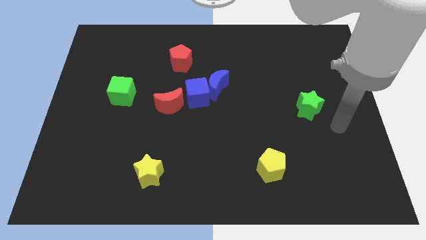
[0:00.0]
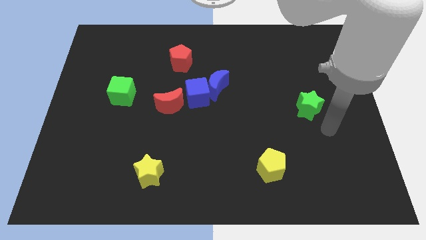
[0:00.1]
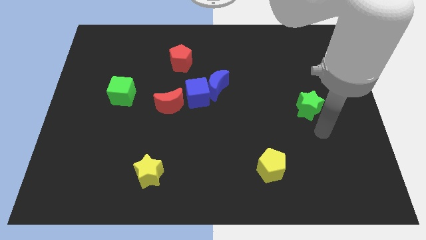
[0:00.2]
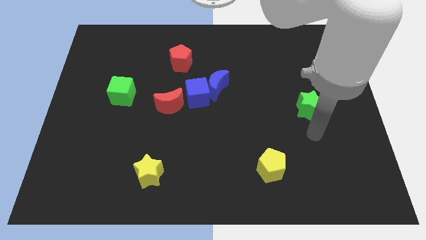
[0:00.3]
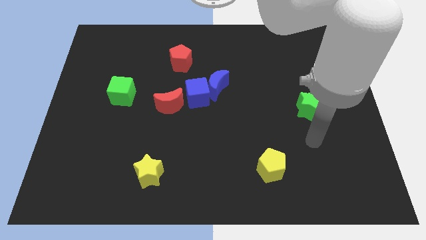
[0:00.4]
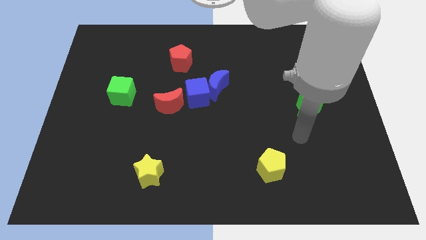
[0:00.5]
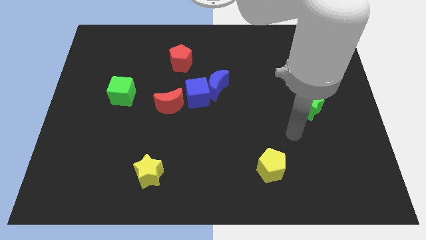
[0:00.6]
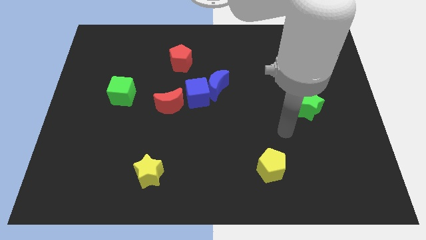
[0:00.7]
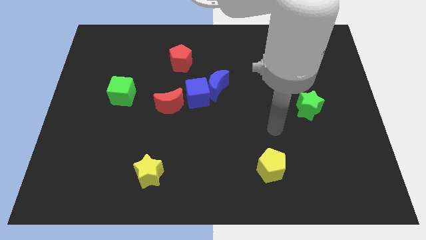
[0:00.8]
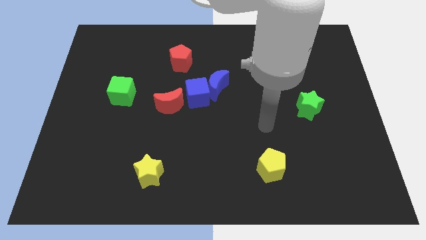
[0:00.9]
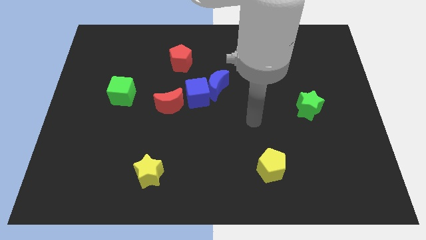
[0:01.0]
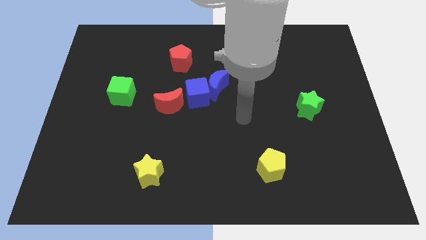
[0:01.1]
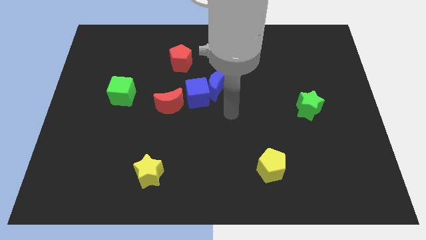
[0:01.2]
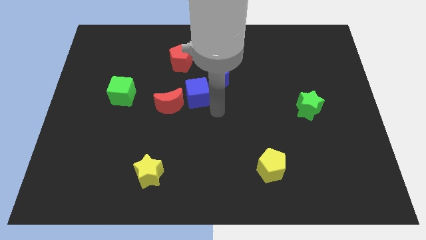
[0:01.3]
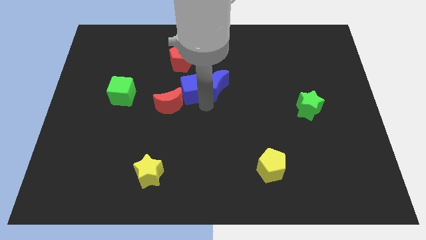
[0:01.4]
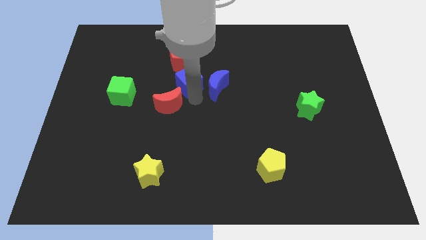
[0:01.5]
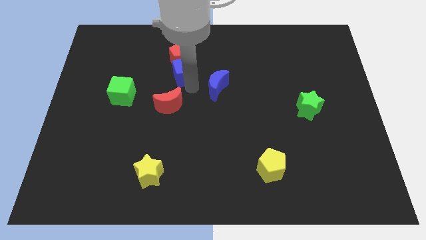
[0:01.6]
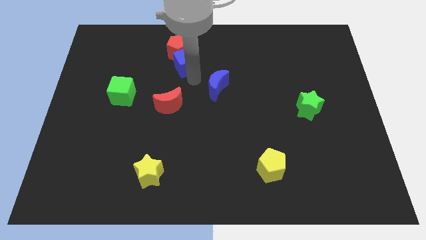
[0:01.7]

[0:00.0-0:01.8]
pull the blue moon apart from the blue cube

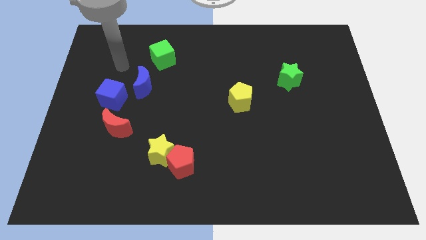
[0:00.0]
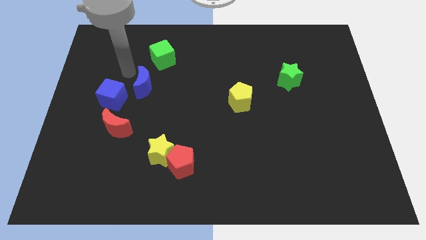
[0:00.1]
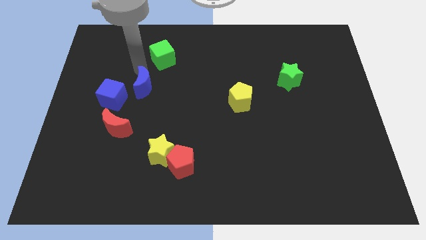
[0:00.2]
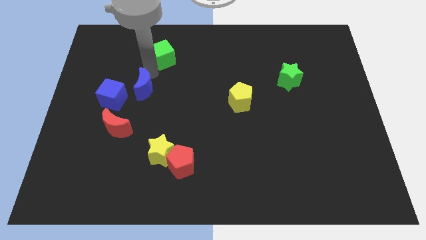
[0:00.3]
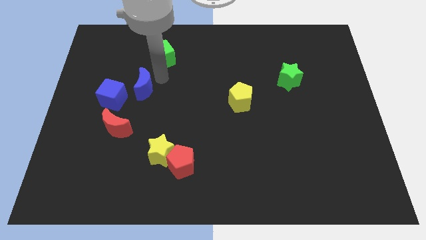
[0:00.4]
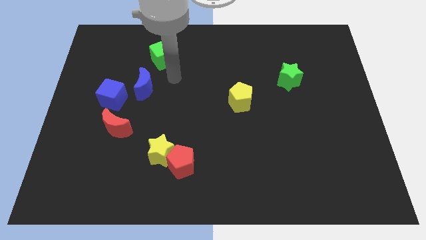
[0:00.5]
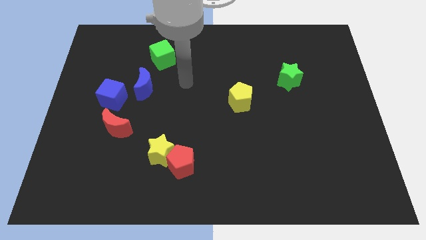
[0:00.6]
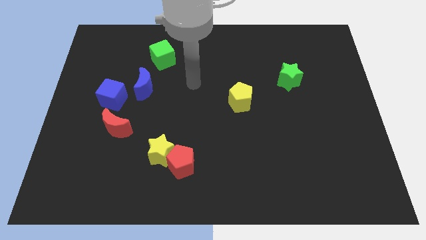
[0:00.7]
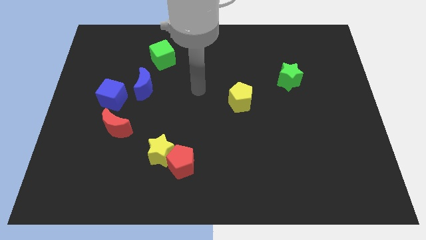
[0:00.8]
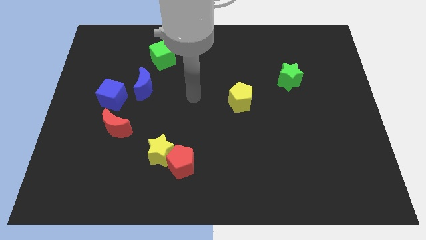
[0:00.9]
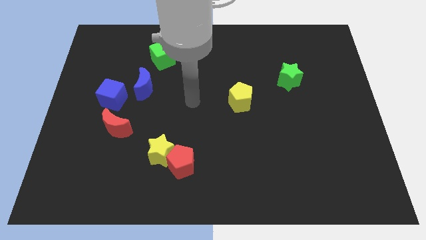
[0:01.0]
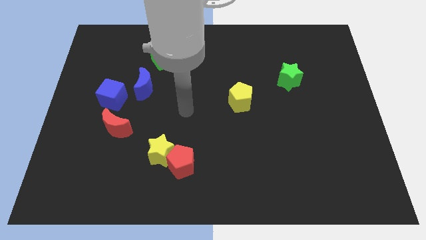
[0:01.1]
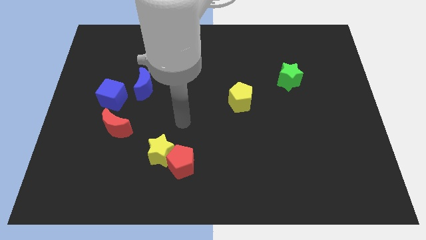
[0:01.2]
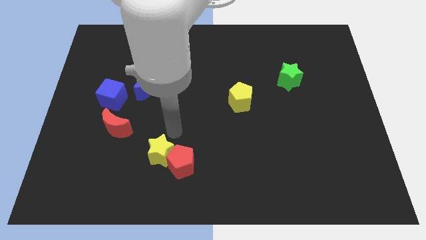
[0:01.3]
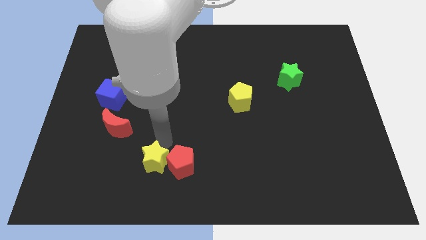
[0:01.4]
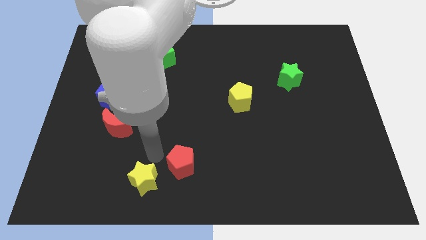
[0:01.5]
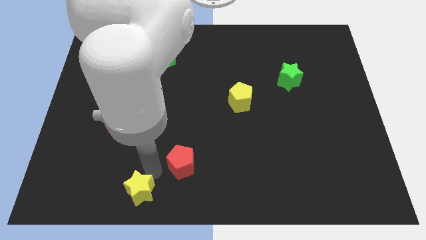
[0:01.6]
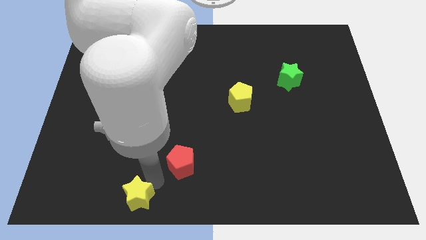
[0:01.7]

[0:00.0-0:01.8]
pull the red pentagon apart from the yellow star

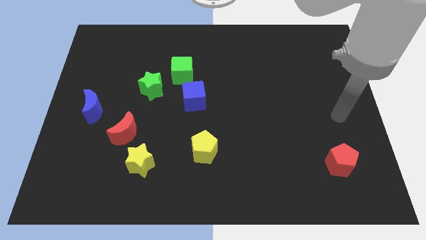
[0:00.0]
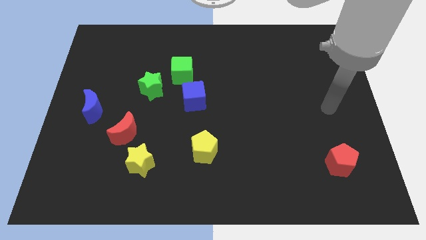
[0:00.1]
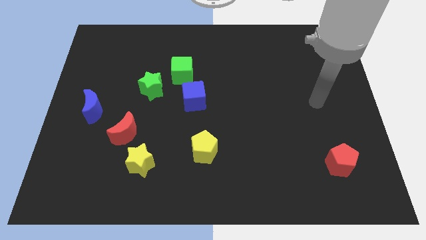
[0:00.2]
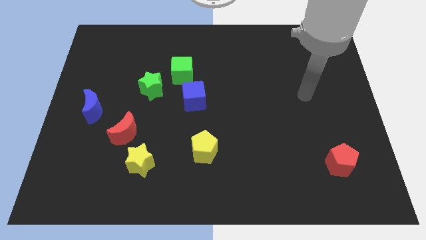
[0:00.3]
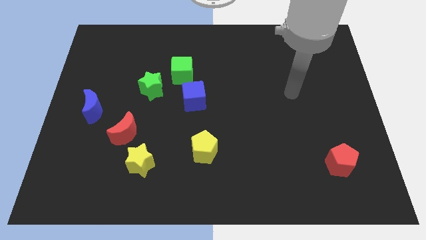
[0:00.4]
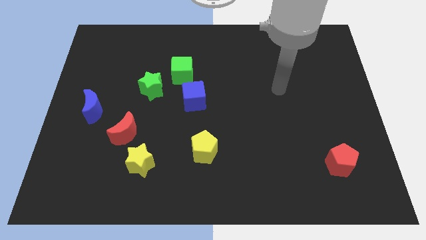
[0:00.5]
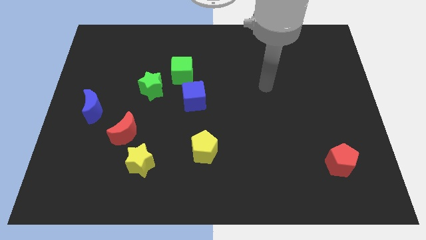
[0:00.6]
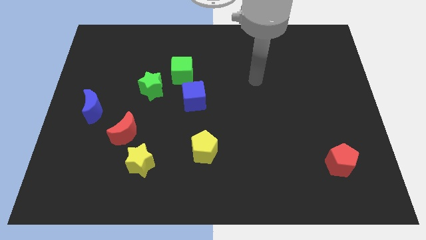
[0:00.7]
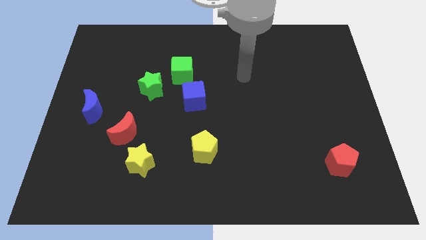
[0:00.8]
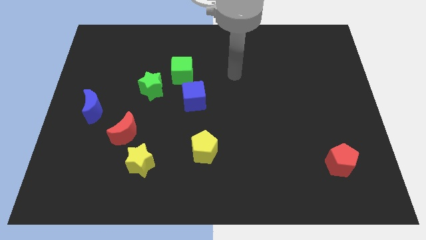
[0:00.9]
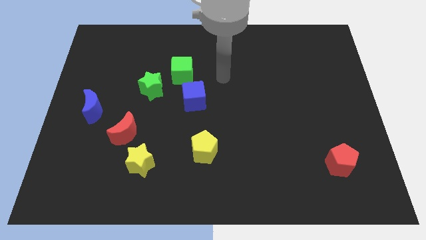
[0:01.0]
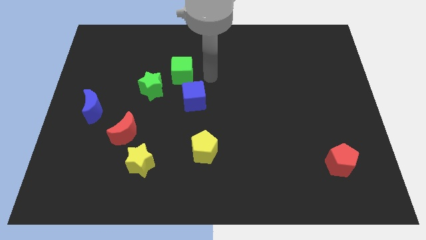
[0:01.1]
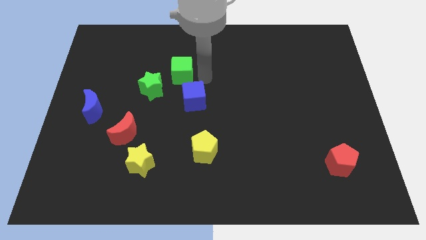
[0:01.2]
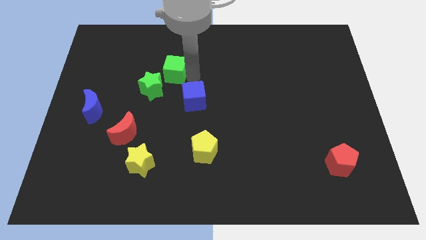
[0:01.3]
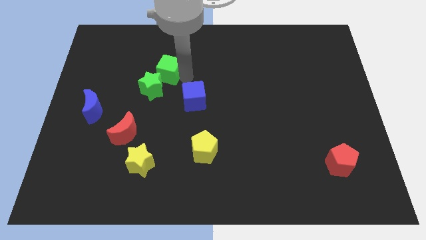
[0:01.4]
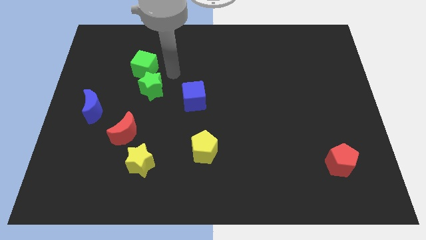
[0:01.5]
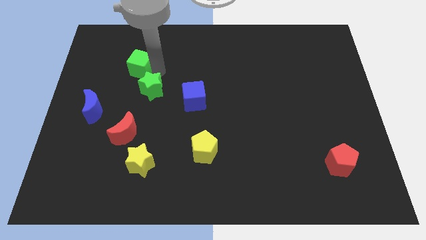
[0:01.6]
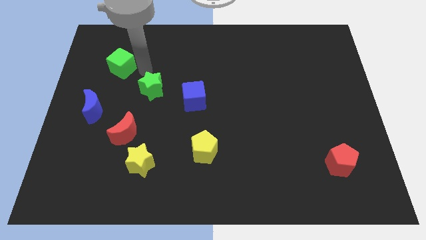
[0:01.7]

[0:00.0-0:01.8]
separate the green star from the green cube

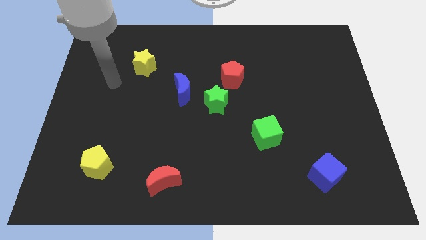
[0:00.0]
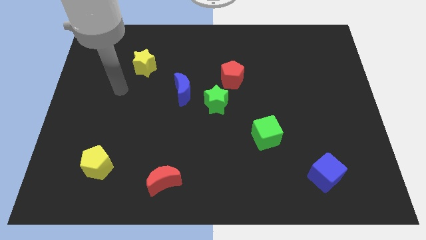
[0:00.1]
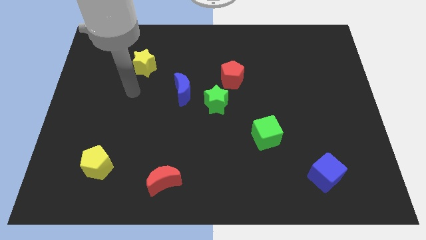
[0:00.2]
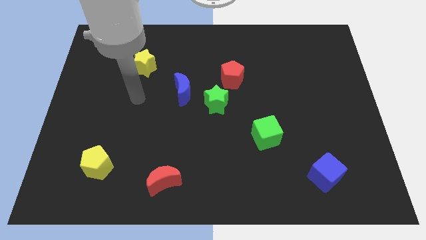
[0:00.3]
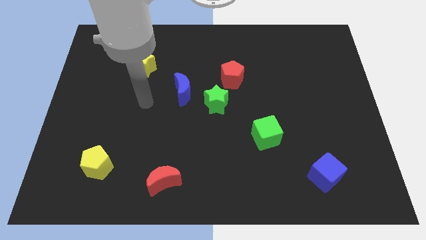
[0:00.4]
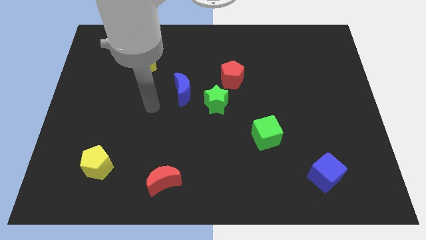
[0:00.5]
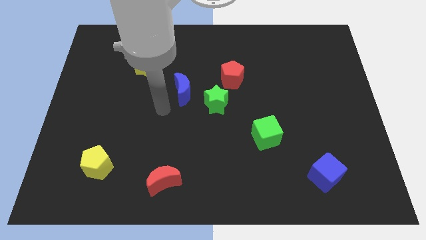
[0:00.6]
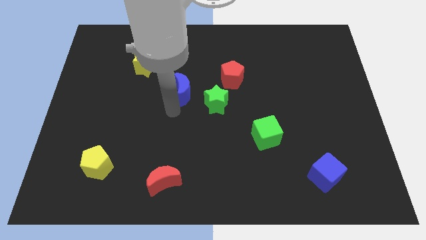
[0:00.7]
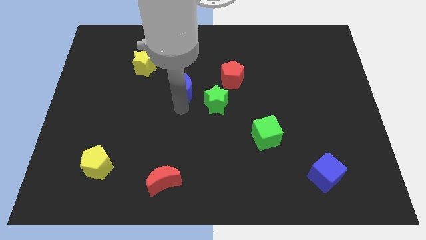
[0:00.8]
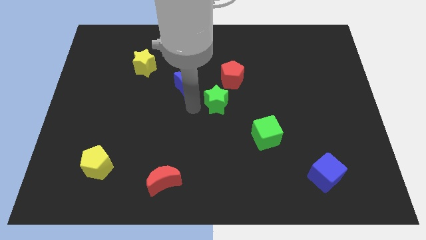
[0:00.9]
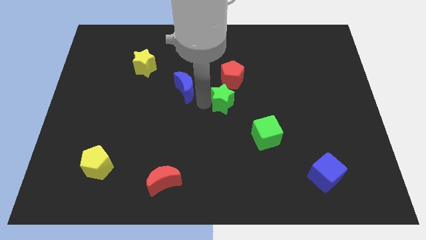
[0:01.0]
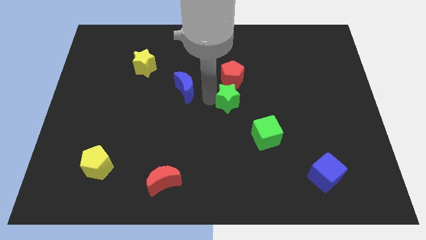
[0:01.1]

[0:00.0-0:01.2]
pull the blue moon apart from the green star

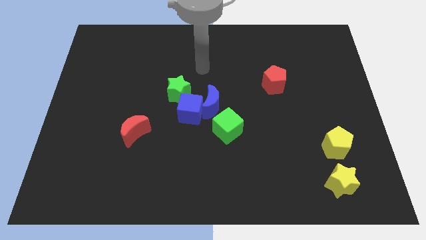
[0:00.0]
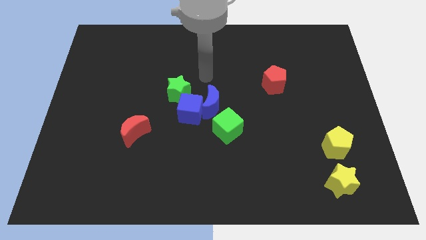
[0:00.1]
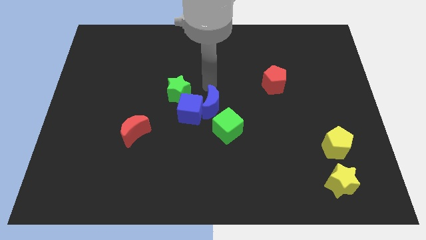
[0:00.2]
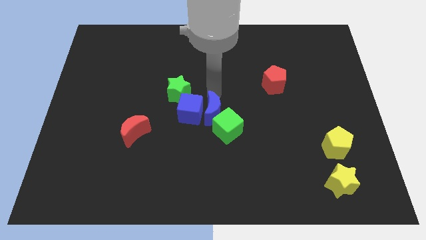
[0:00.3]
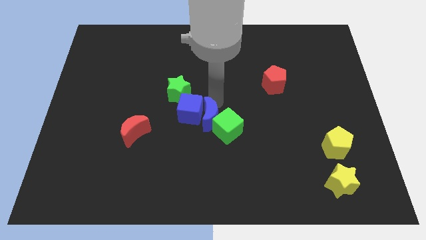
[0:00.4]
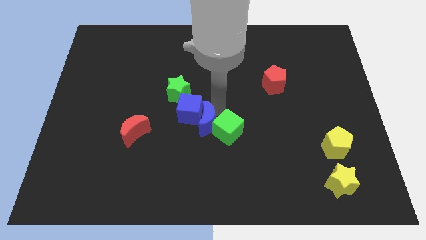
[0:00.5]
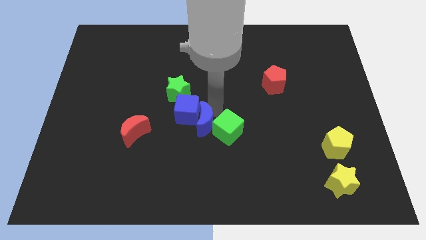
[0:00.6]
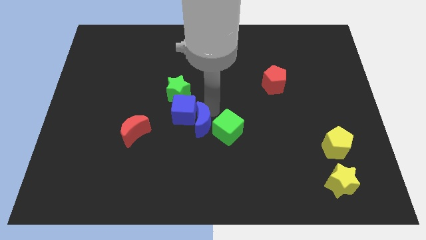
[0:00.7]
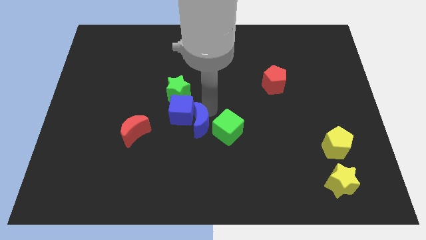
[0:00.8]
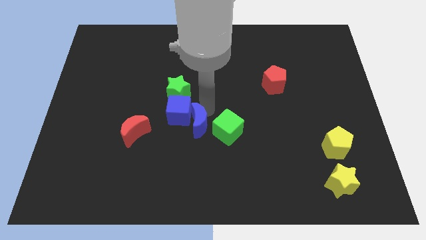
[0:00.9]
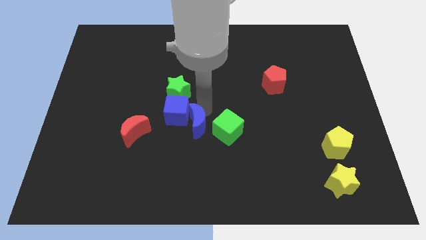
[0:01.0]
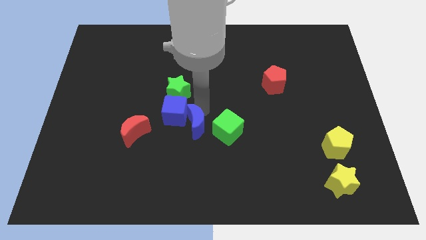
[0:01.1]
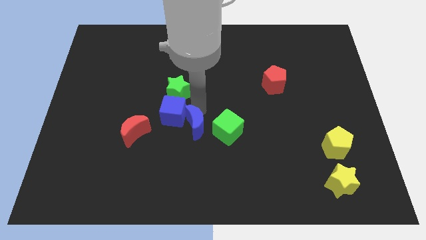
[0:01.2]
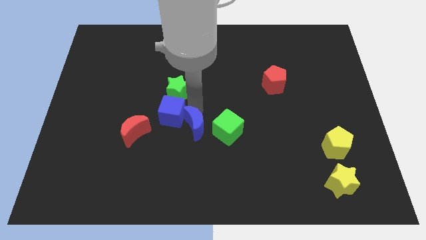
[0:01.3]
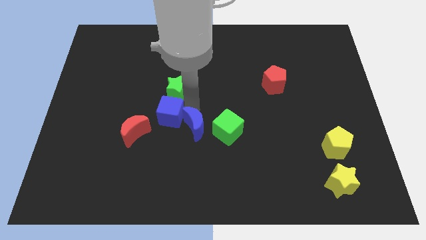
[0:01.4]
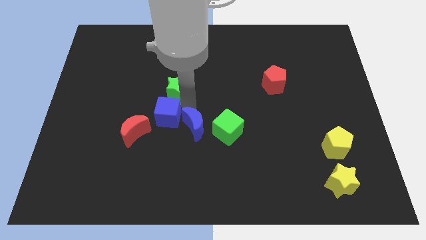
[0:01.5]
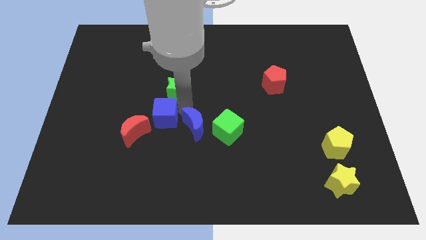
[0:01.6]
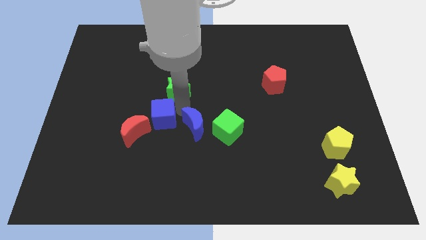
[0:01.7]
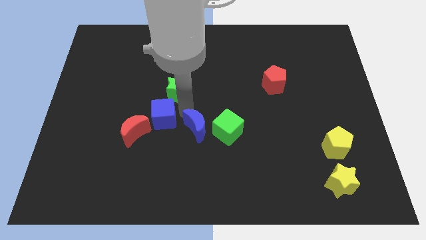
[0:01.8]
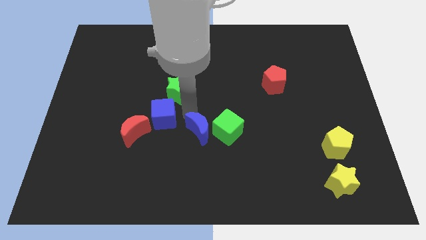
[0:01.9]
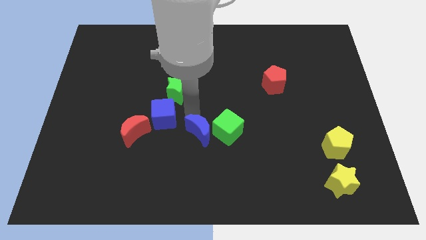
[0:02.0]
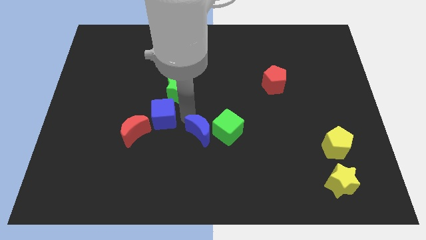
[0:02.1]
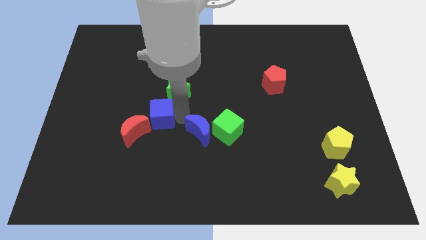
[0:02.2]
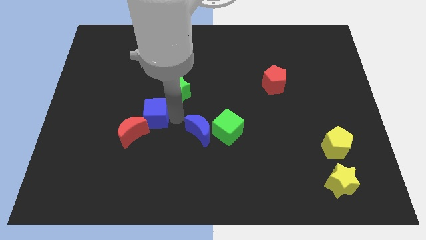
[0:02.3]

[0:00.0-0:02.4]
separate the blue cube from the group of blocks

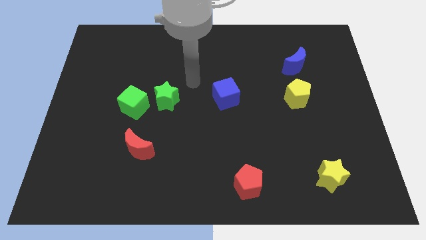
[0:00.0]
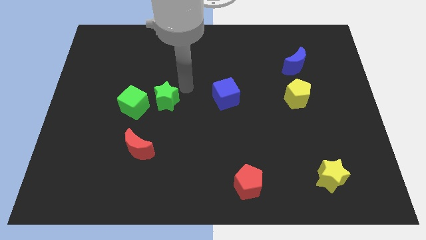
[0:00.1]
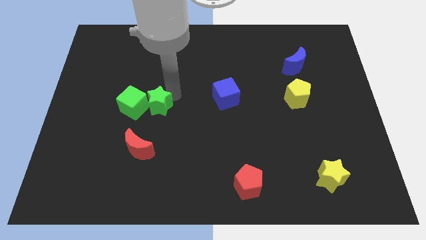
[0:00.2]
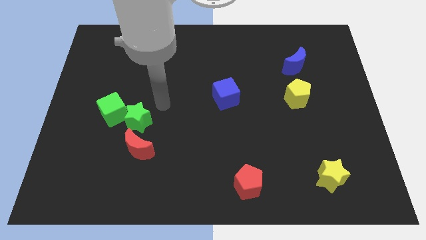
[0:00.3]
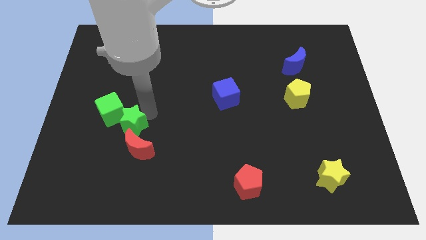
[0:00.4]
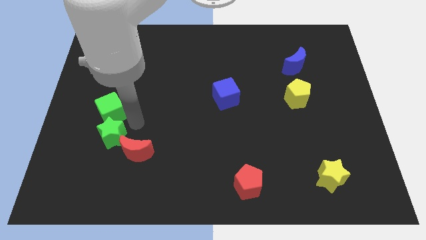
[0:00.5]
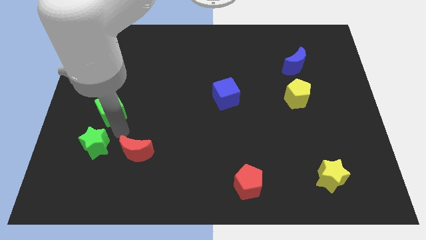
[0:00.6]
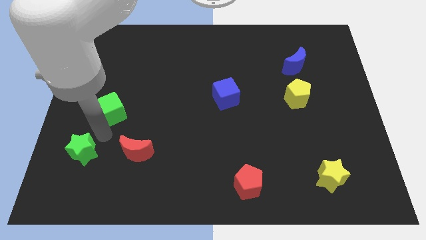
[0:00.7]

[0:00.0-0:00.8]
separate the green cube from the green star
